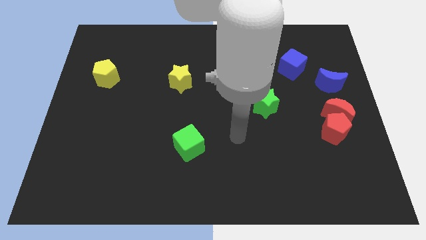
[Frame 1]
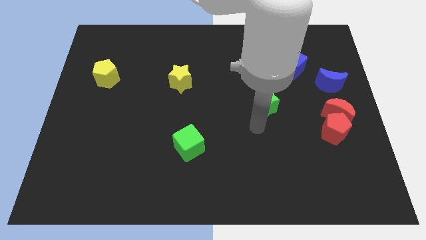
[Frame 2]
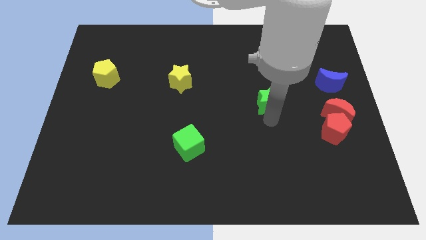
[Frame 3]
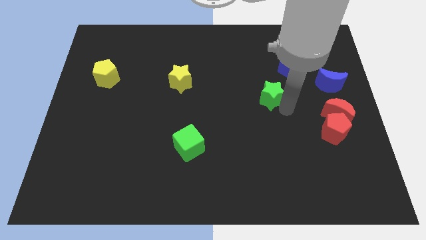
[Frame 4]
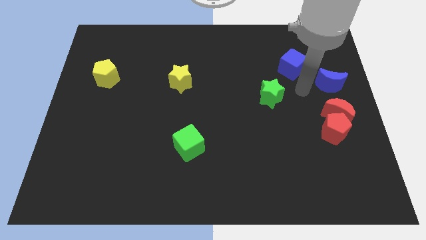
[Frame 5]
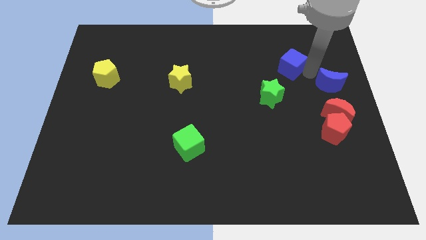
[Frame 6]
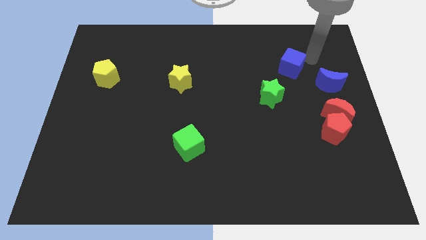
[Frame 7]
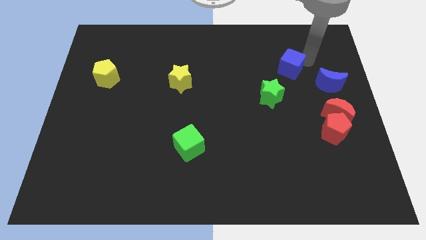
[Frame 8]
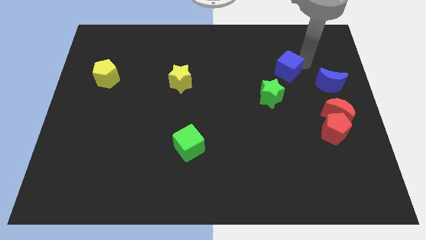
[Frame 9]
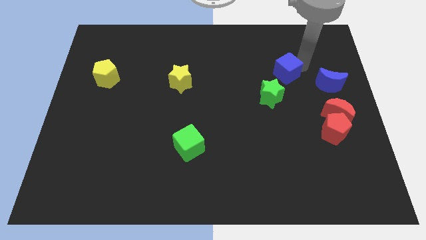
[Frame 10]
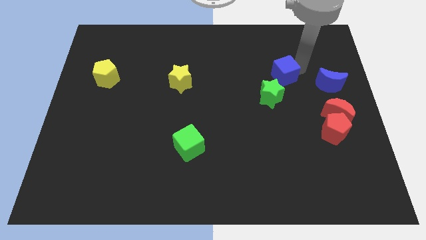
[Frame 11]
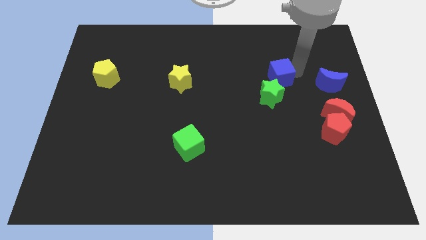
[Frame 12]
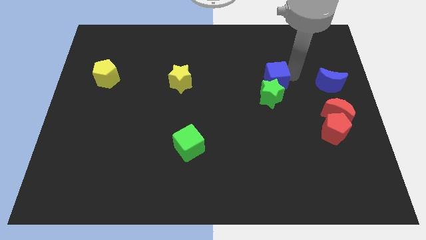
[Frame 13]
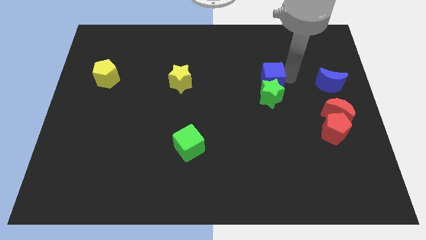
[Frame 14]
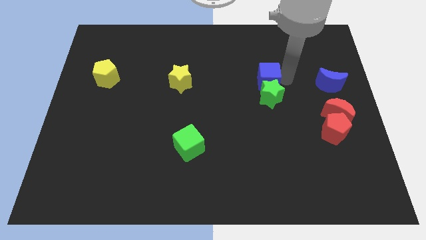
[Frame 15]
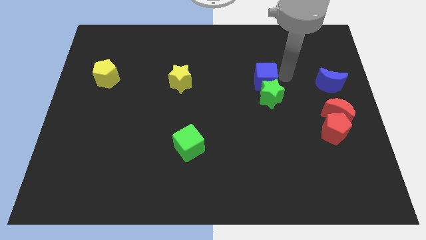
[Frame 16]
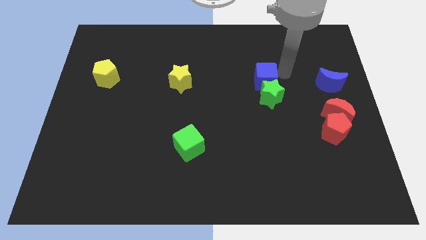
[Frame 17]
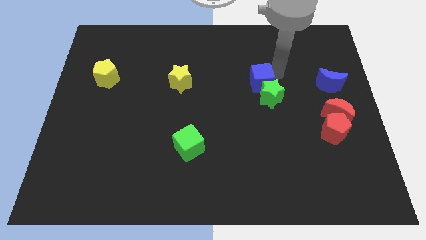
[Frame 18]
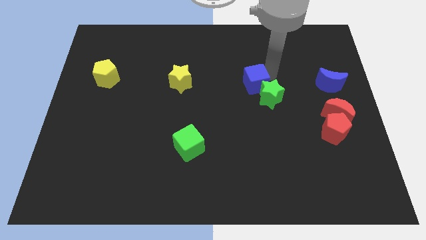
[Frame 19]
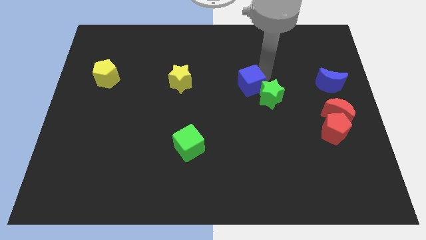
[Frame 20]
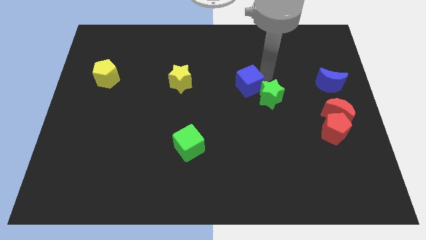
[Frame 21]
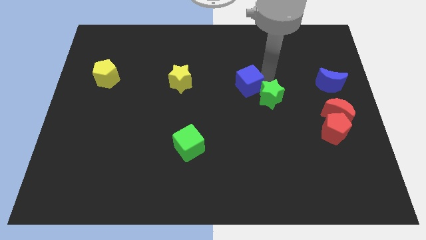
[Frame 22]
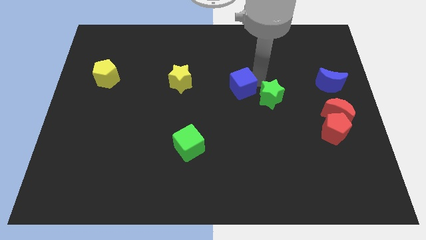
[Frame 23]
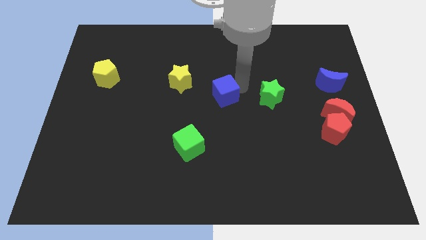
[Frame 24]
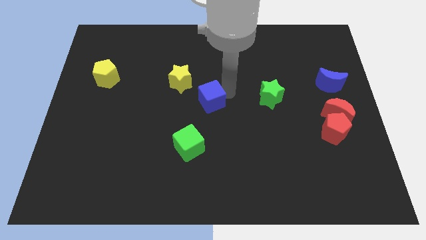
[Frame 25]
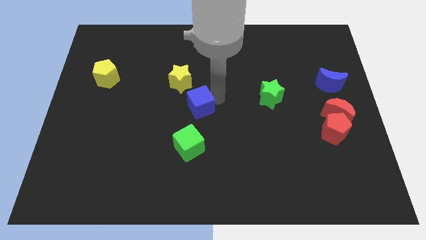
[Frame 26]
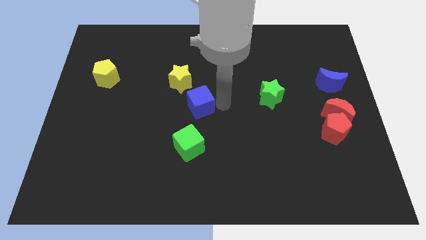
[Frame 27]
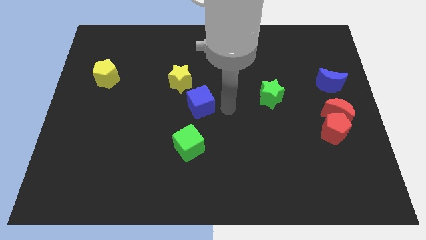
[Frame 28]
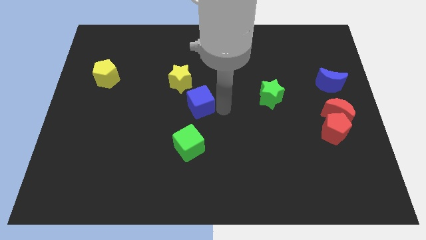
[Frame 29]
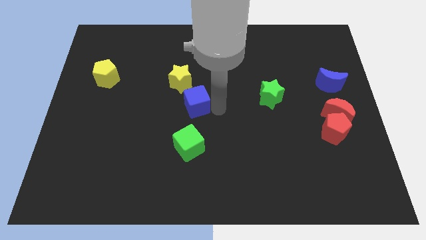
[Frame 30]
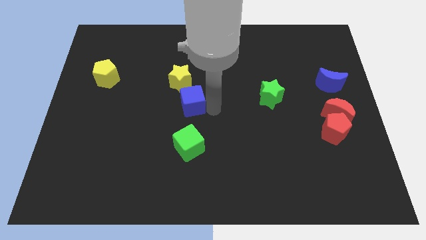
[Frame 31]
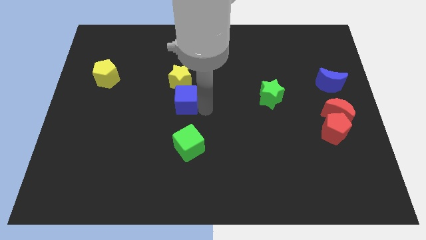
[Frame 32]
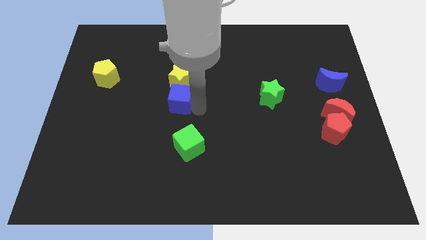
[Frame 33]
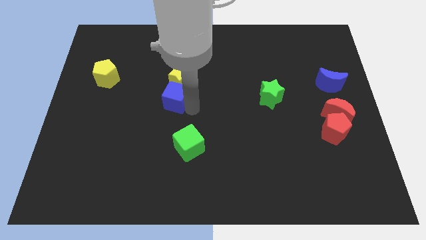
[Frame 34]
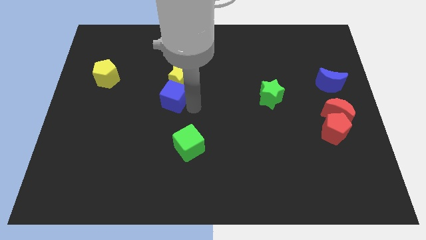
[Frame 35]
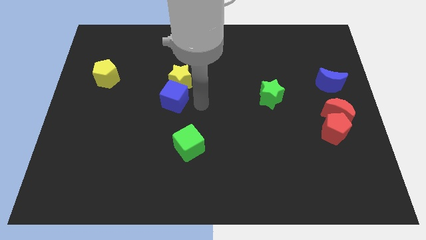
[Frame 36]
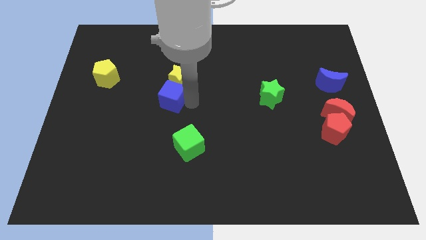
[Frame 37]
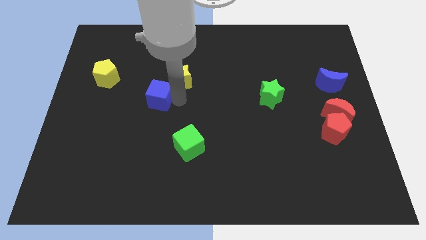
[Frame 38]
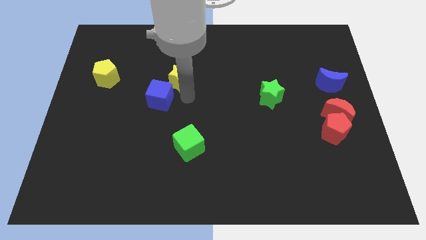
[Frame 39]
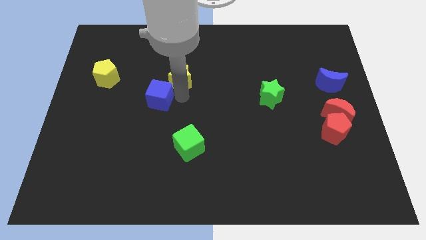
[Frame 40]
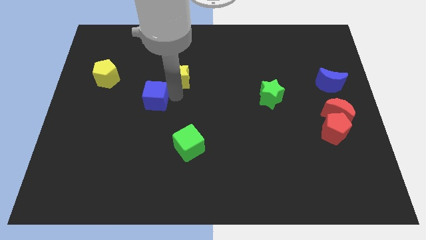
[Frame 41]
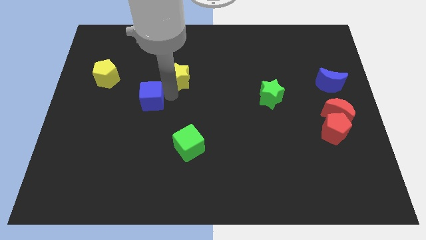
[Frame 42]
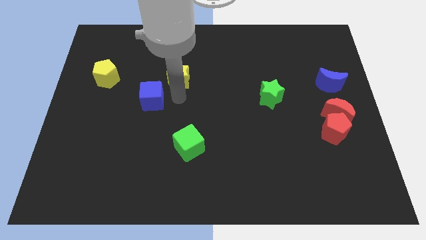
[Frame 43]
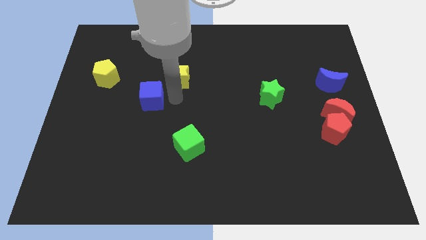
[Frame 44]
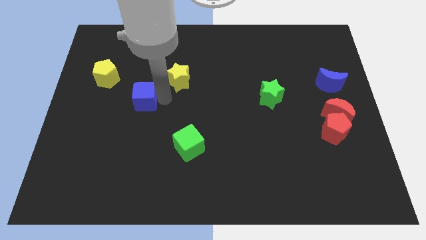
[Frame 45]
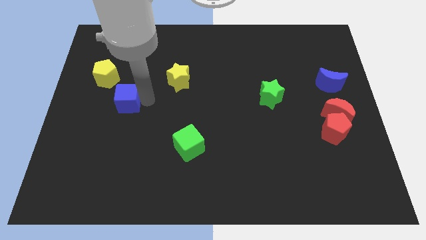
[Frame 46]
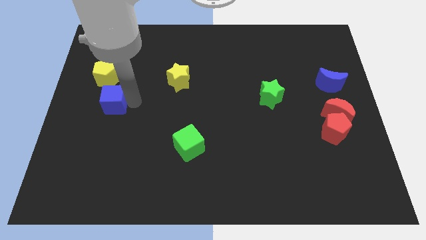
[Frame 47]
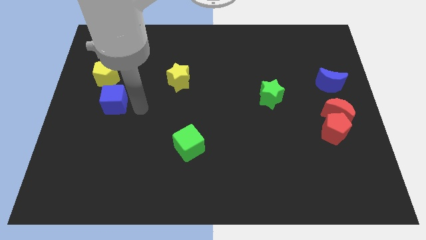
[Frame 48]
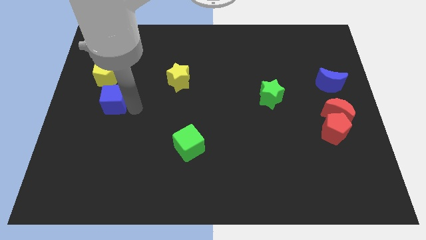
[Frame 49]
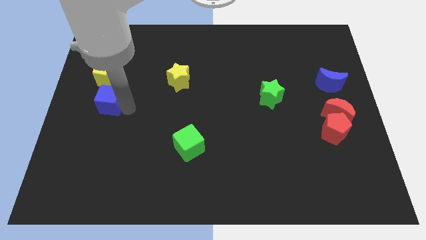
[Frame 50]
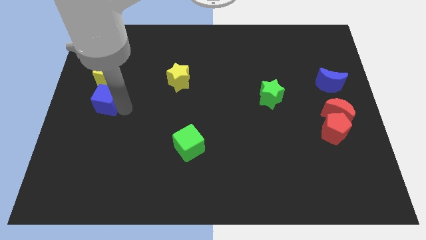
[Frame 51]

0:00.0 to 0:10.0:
move the blue cube to the center left

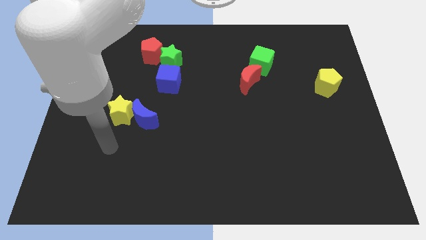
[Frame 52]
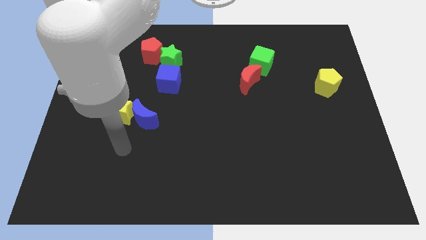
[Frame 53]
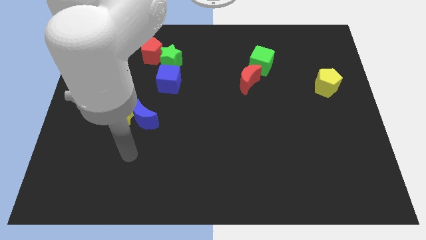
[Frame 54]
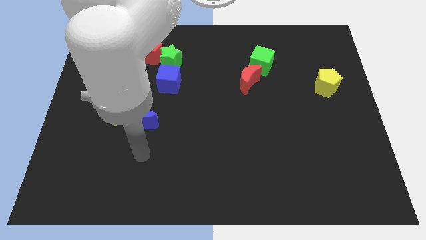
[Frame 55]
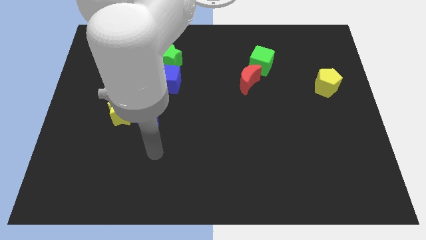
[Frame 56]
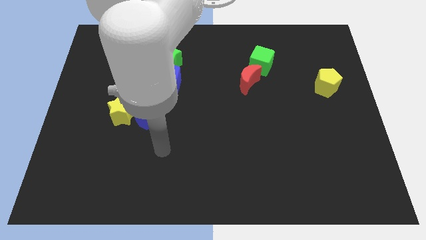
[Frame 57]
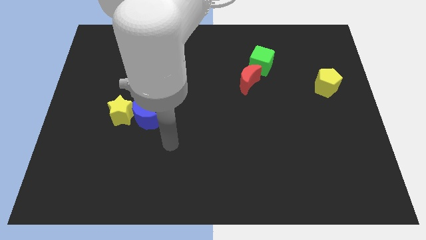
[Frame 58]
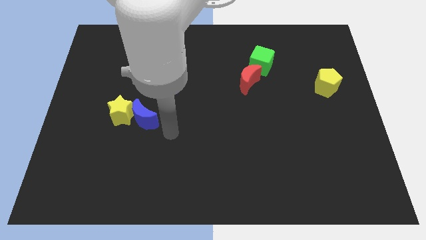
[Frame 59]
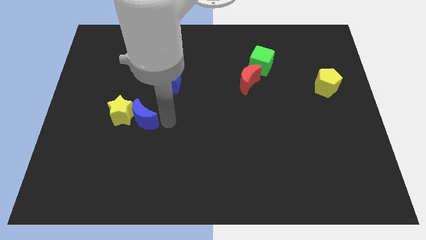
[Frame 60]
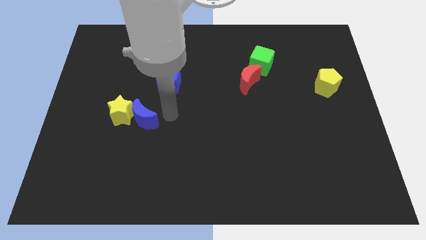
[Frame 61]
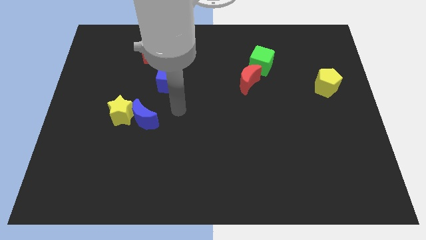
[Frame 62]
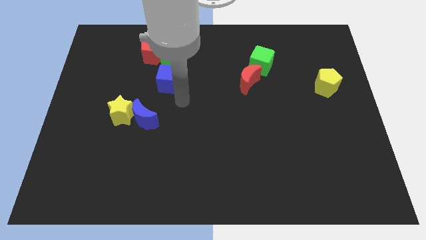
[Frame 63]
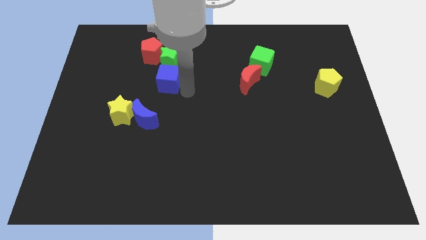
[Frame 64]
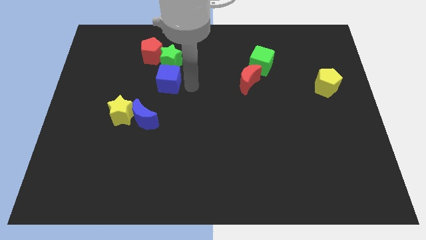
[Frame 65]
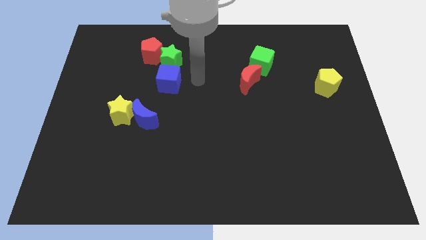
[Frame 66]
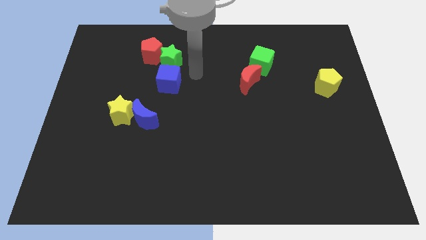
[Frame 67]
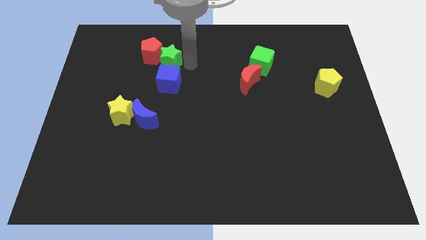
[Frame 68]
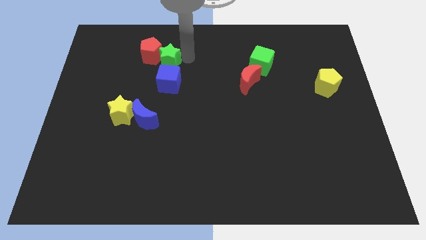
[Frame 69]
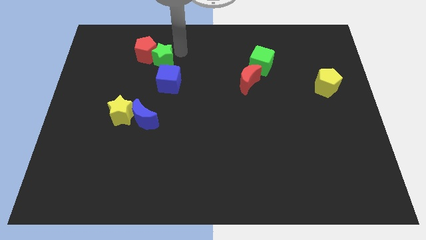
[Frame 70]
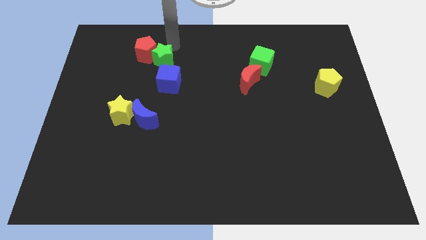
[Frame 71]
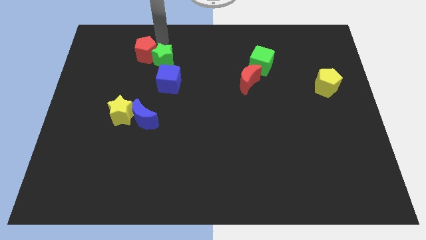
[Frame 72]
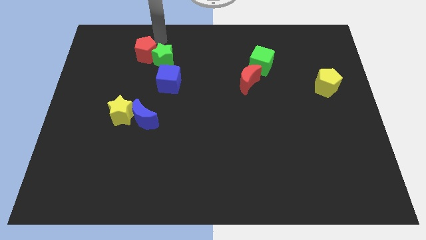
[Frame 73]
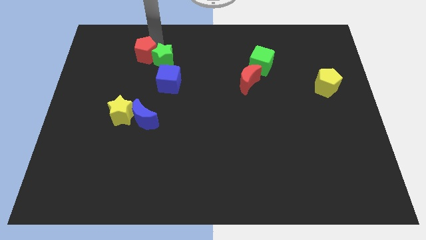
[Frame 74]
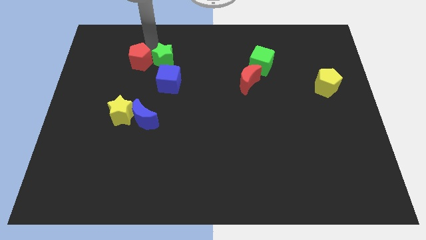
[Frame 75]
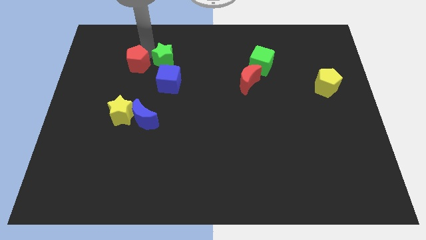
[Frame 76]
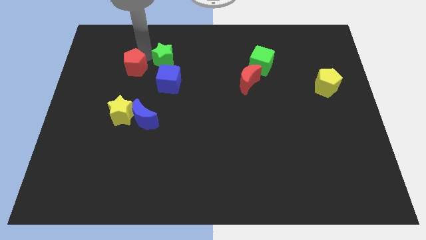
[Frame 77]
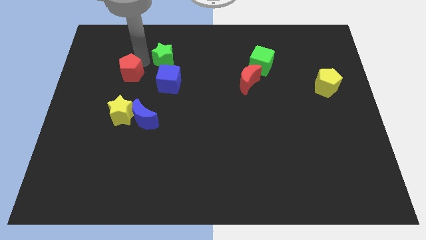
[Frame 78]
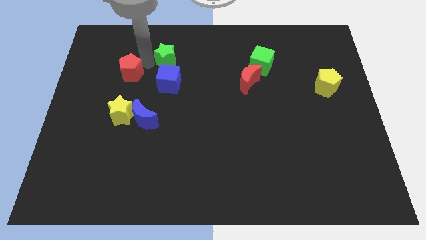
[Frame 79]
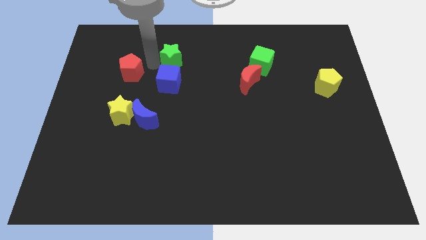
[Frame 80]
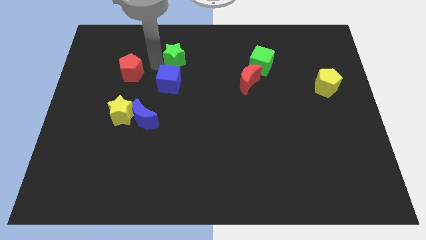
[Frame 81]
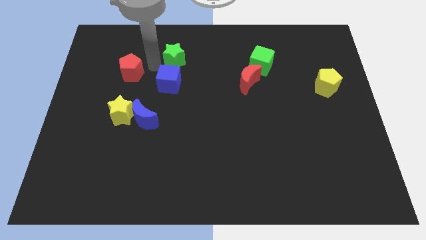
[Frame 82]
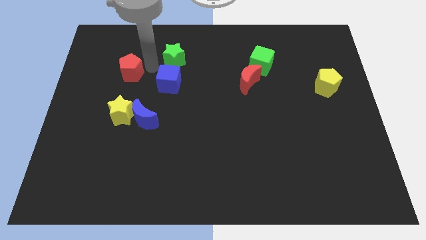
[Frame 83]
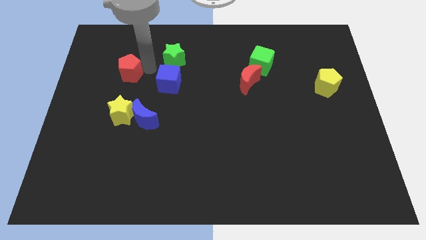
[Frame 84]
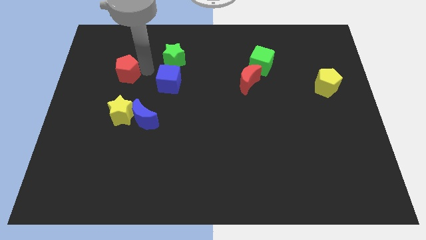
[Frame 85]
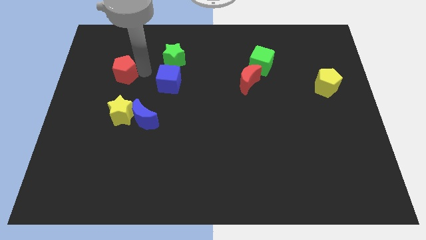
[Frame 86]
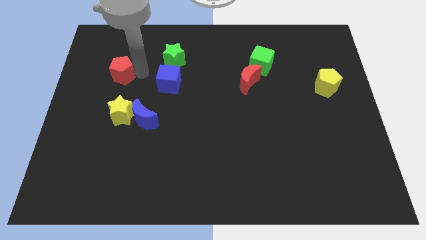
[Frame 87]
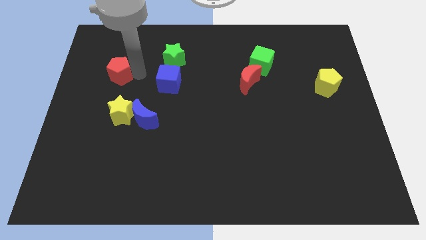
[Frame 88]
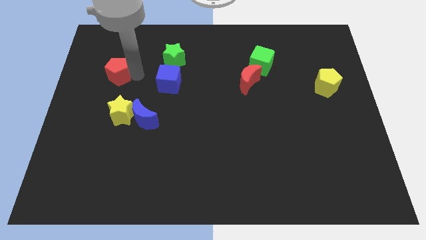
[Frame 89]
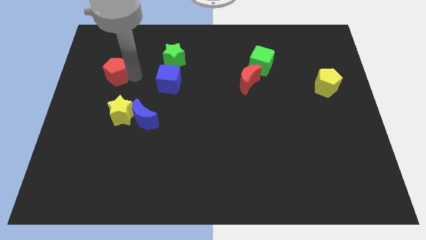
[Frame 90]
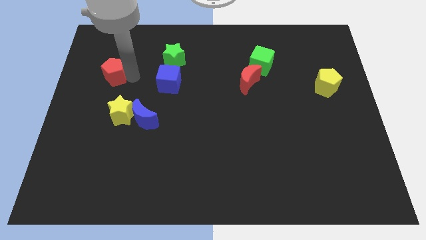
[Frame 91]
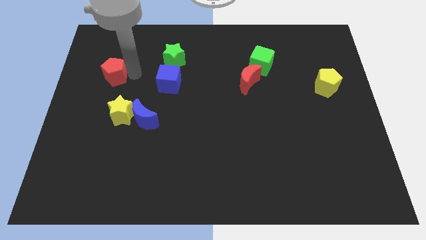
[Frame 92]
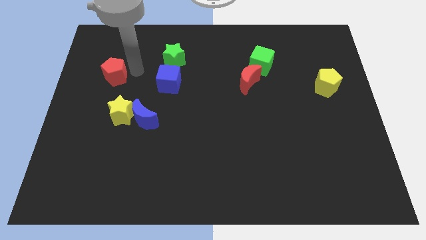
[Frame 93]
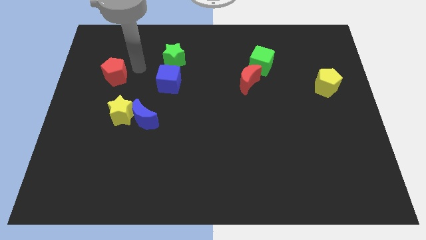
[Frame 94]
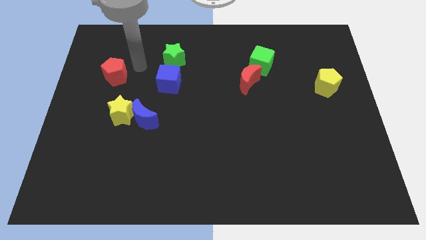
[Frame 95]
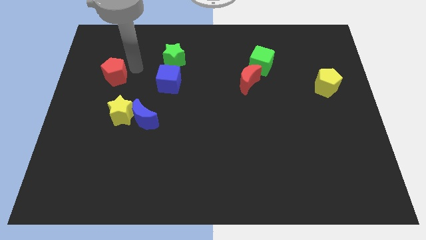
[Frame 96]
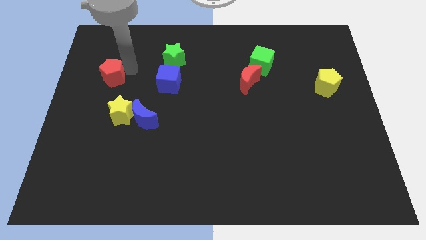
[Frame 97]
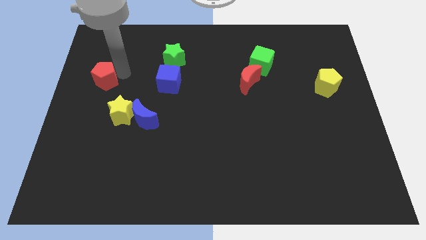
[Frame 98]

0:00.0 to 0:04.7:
move the red pentagon to the left side of the board
